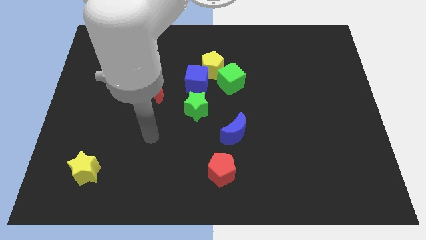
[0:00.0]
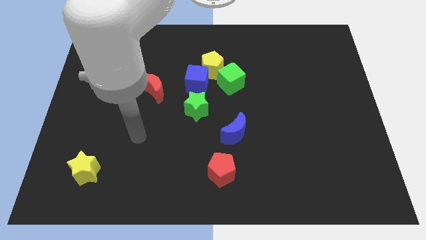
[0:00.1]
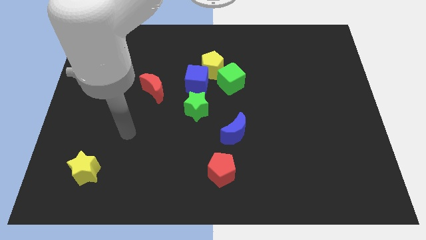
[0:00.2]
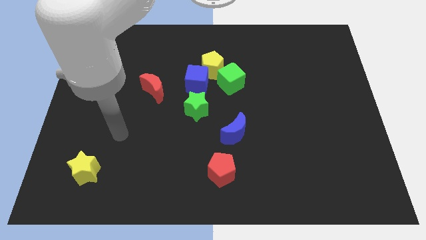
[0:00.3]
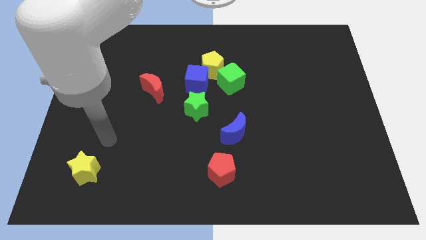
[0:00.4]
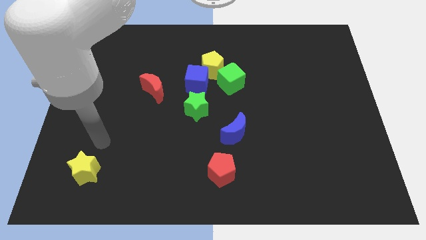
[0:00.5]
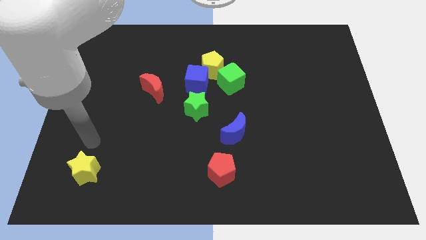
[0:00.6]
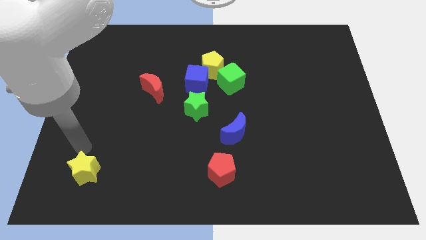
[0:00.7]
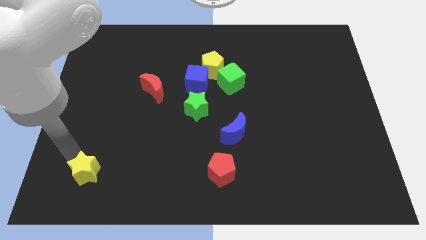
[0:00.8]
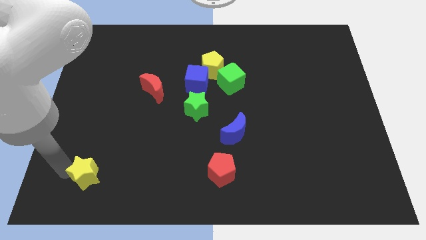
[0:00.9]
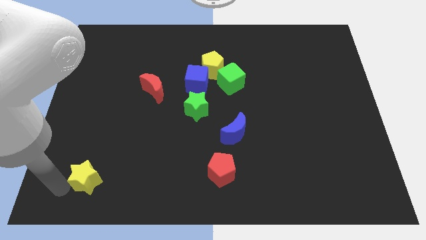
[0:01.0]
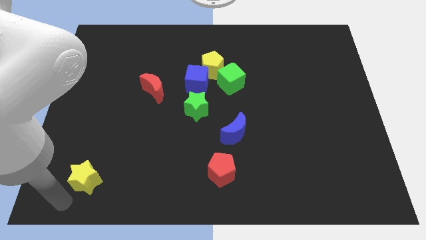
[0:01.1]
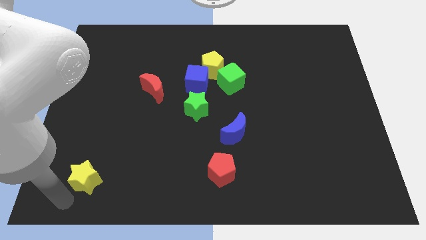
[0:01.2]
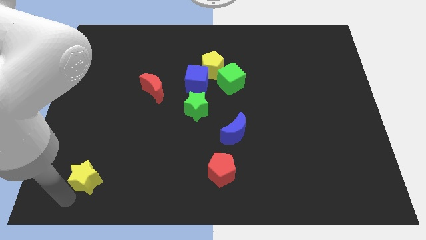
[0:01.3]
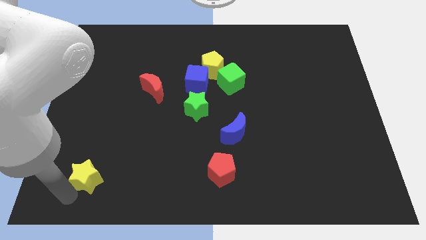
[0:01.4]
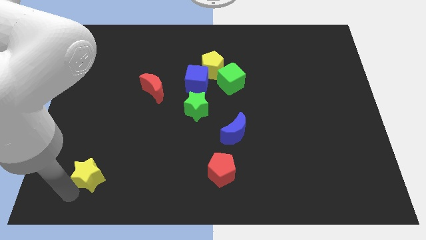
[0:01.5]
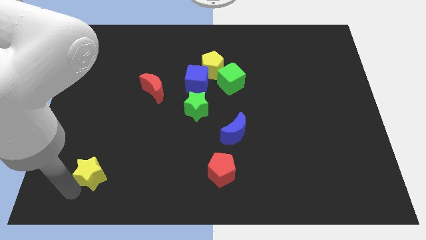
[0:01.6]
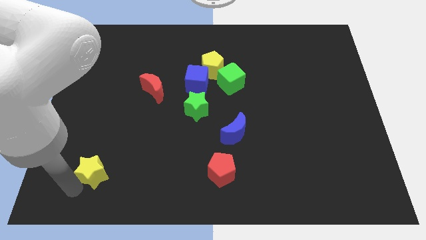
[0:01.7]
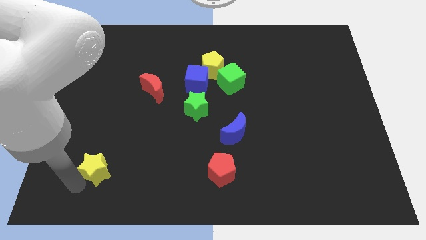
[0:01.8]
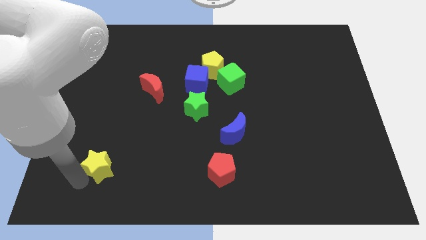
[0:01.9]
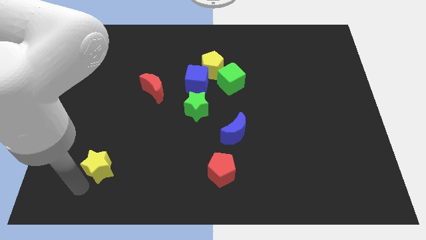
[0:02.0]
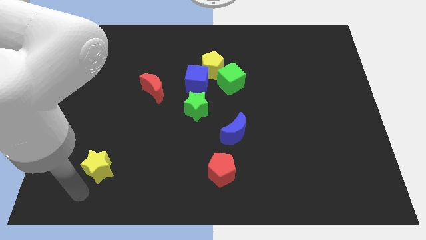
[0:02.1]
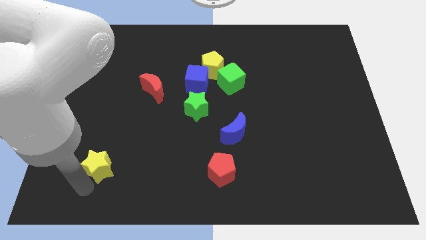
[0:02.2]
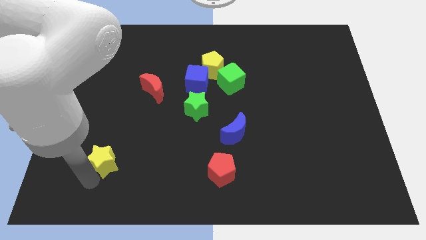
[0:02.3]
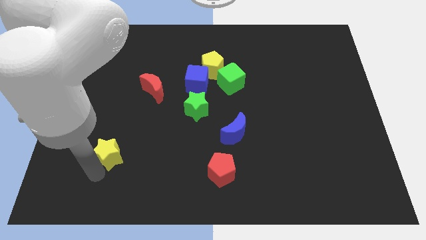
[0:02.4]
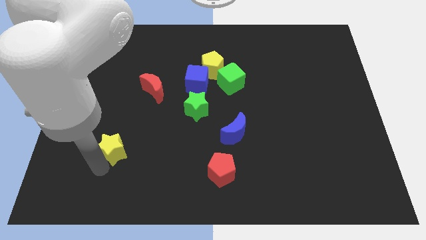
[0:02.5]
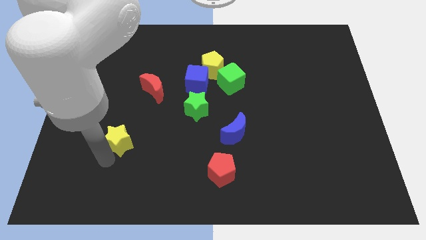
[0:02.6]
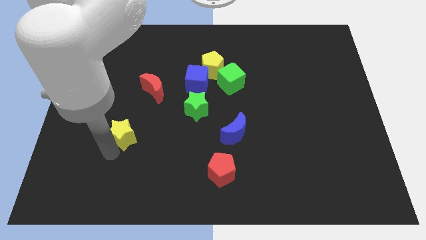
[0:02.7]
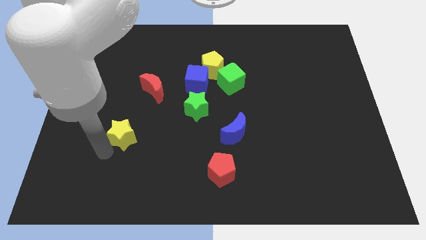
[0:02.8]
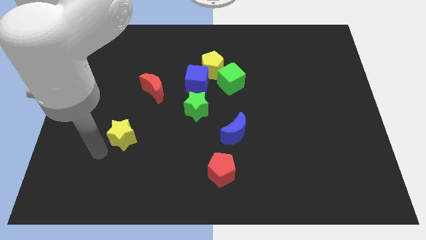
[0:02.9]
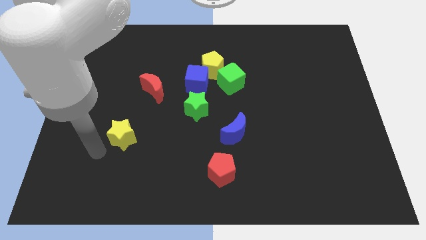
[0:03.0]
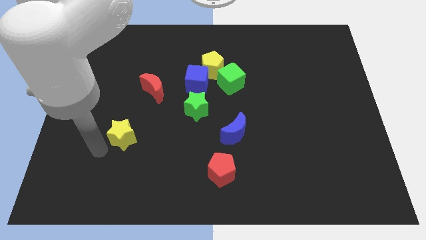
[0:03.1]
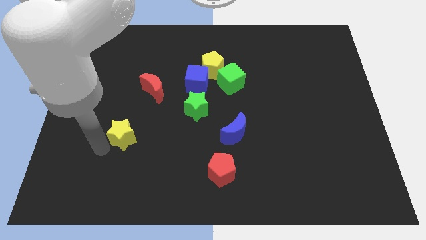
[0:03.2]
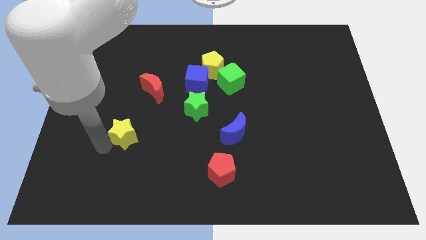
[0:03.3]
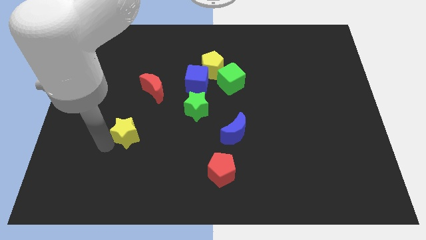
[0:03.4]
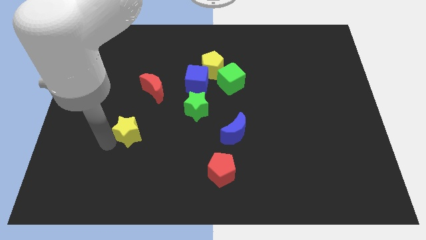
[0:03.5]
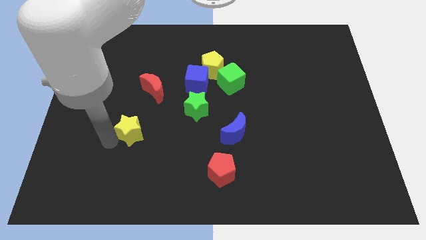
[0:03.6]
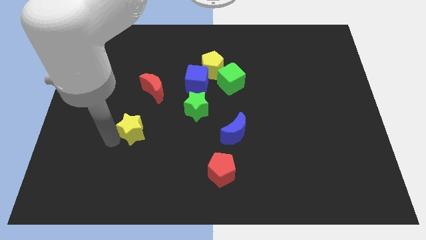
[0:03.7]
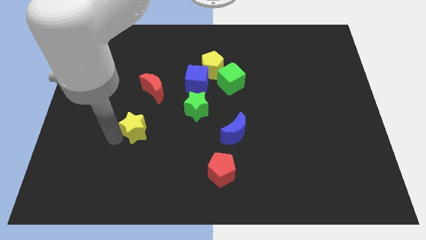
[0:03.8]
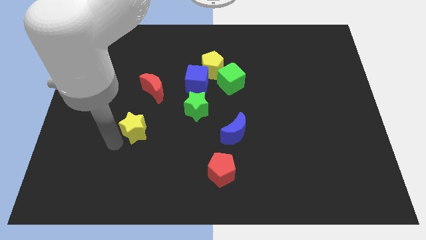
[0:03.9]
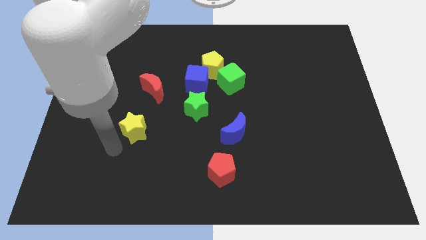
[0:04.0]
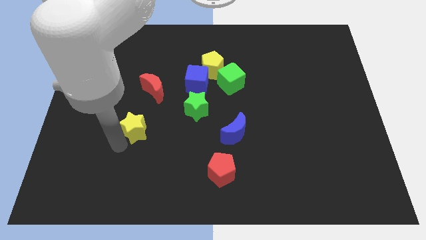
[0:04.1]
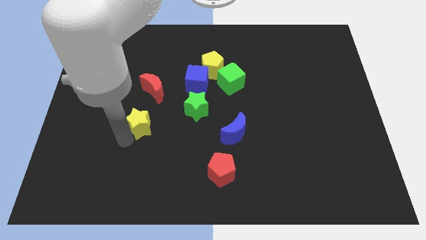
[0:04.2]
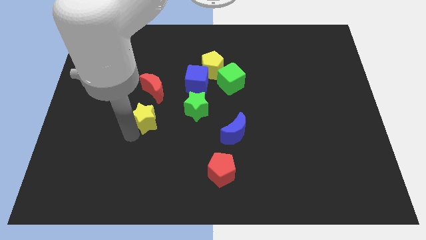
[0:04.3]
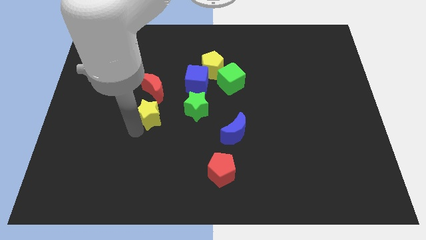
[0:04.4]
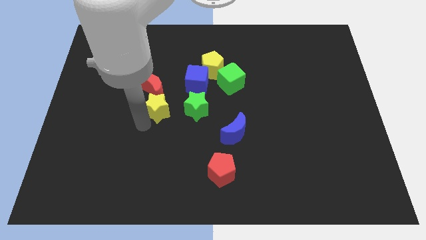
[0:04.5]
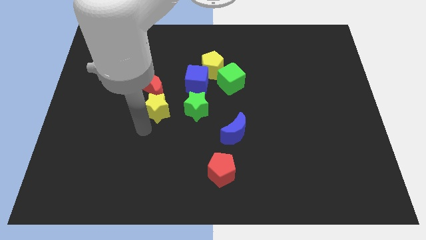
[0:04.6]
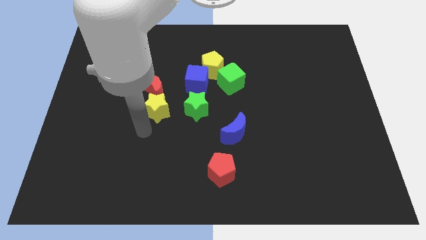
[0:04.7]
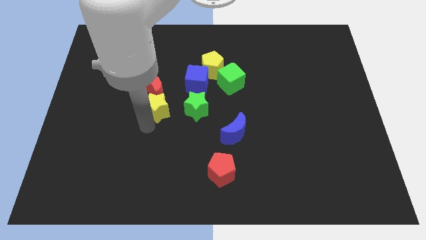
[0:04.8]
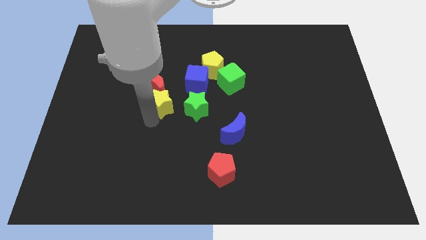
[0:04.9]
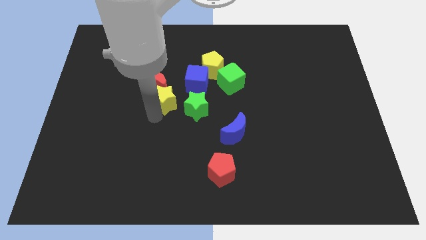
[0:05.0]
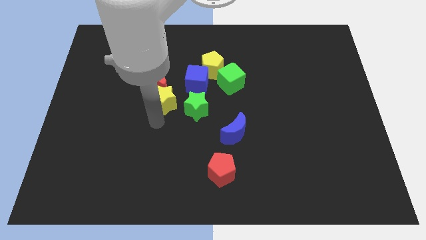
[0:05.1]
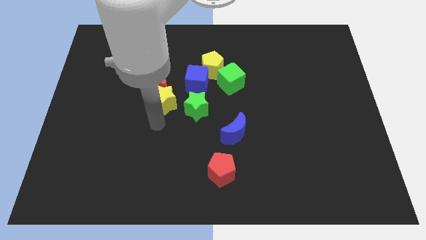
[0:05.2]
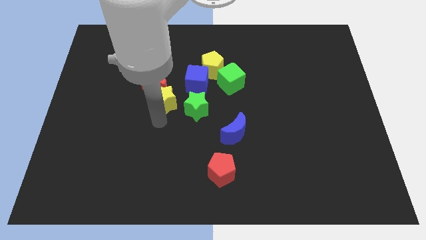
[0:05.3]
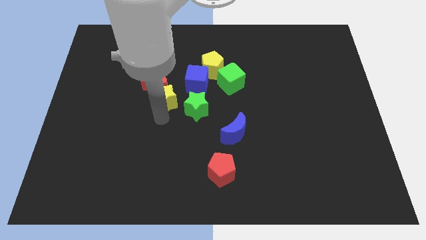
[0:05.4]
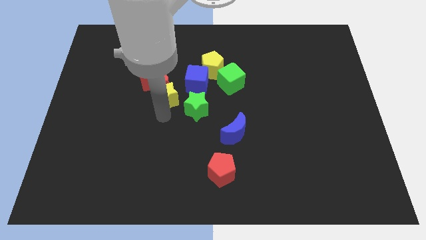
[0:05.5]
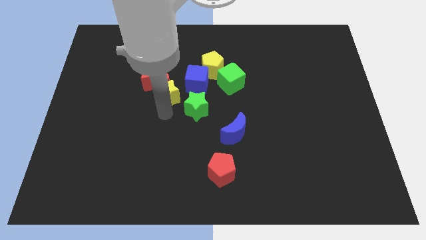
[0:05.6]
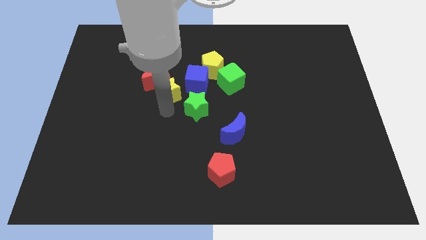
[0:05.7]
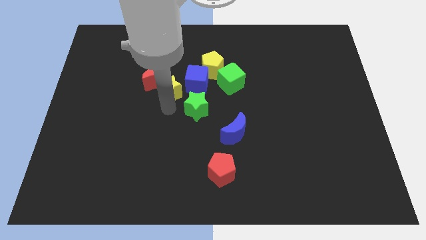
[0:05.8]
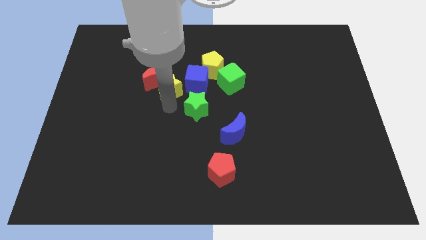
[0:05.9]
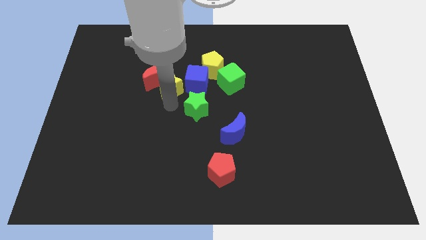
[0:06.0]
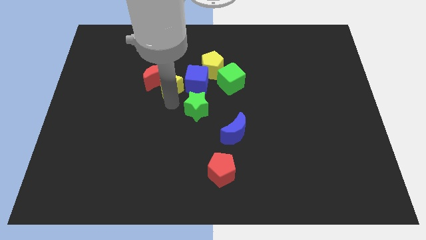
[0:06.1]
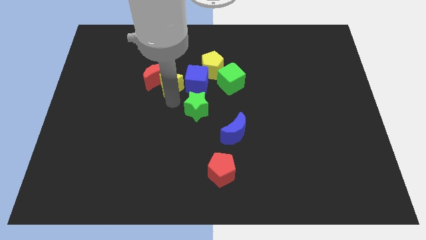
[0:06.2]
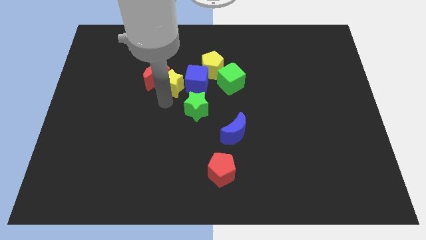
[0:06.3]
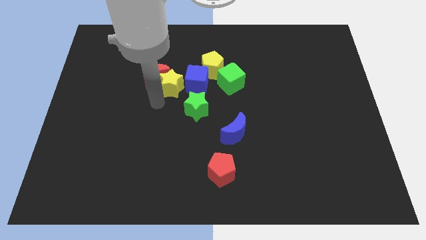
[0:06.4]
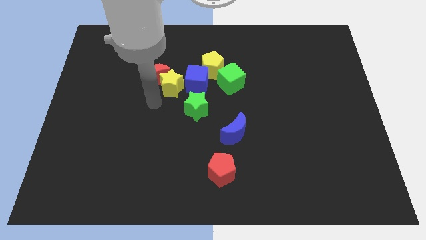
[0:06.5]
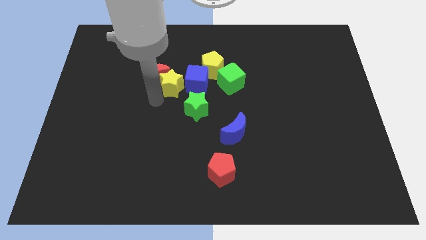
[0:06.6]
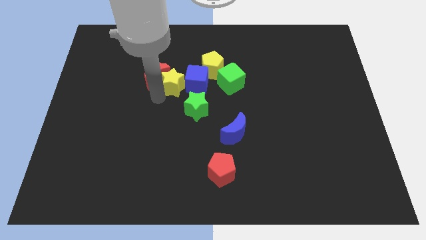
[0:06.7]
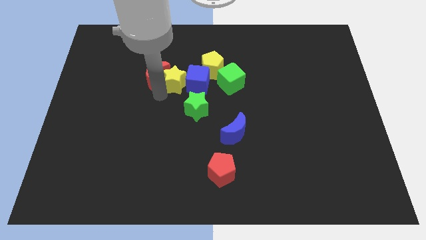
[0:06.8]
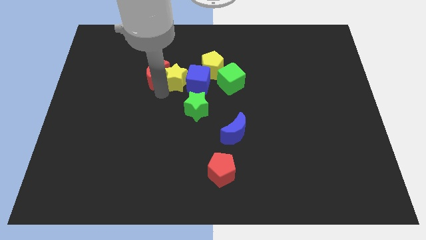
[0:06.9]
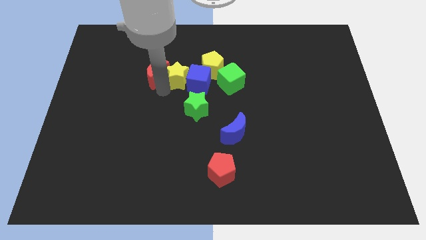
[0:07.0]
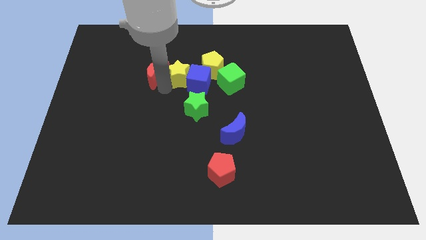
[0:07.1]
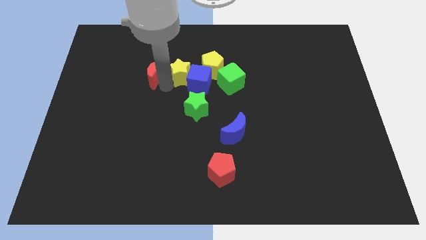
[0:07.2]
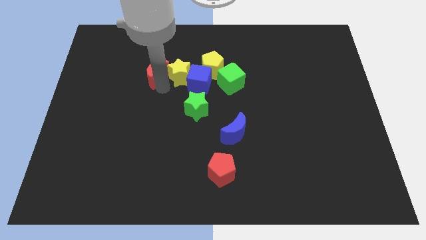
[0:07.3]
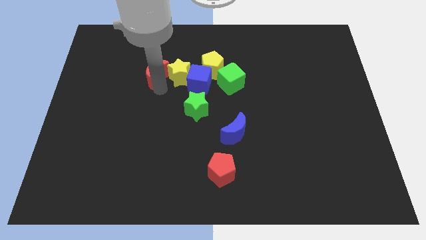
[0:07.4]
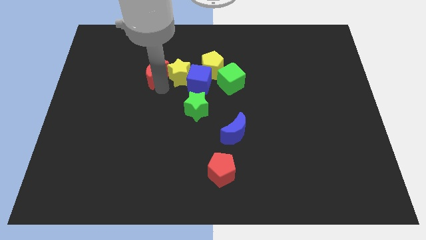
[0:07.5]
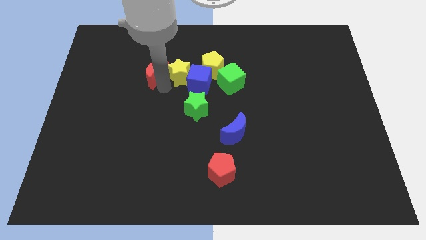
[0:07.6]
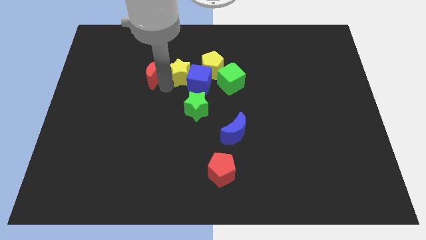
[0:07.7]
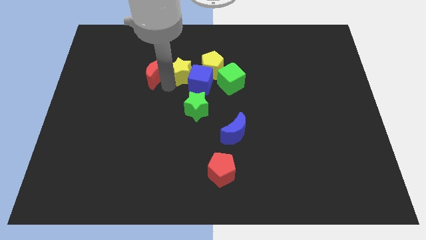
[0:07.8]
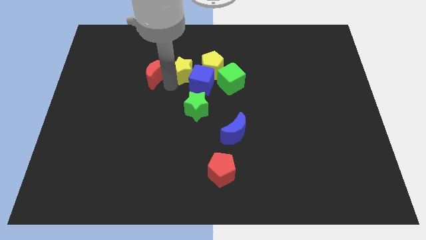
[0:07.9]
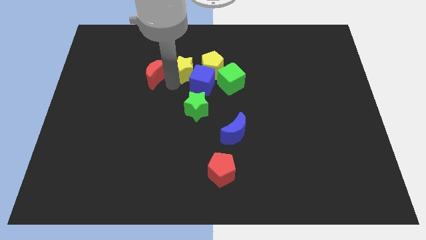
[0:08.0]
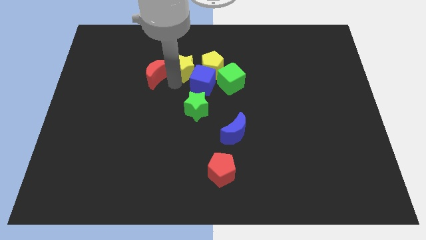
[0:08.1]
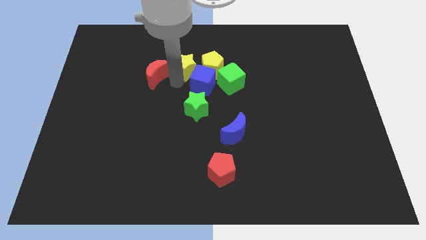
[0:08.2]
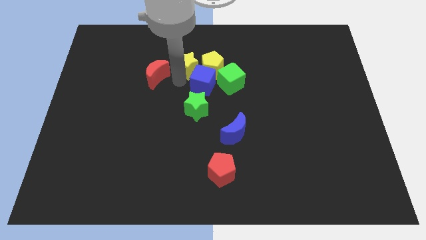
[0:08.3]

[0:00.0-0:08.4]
move the yellow star to the yellow pentagon
